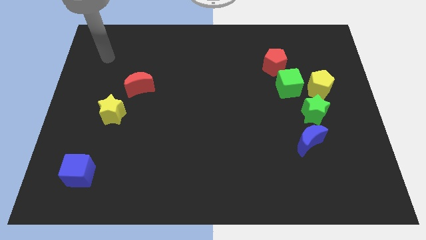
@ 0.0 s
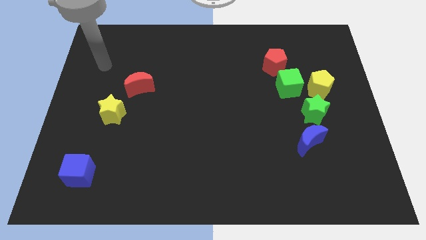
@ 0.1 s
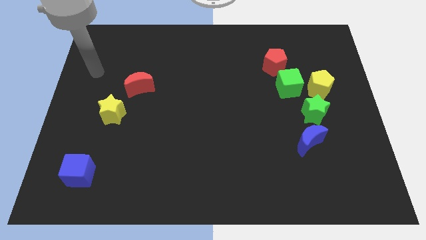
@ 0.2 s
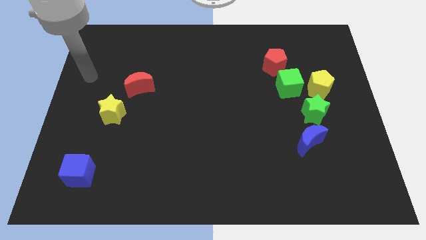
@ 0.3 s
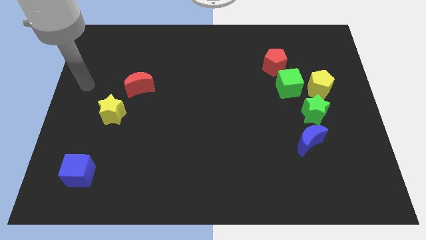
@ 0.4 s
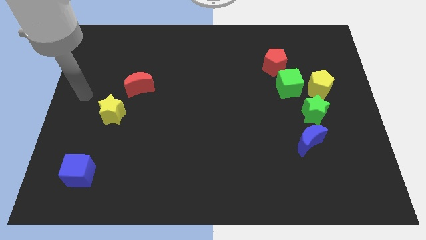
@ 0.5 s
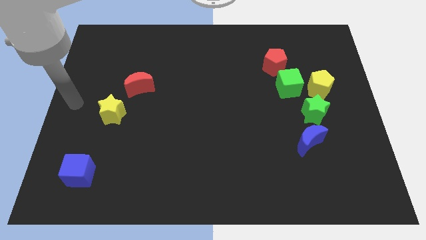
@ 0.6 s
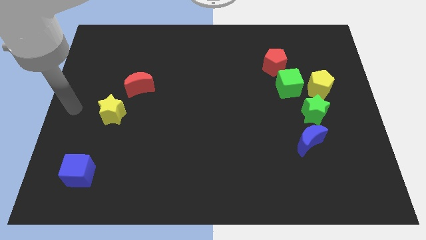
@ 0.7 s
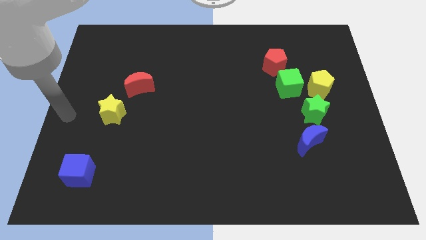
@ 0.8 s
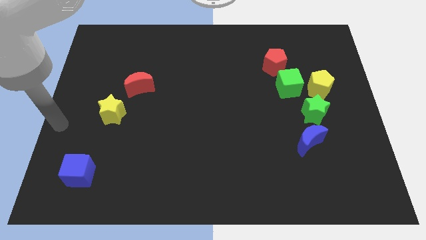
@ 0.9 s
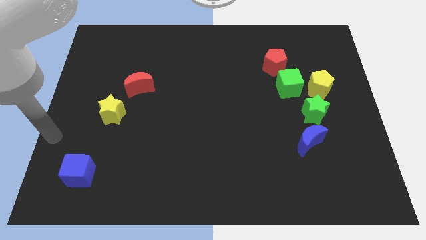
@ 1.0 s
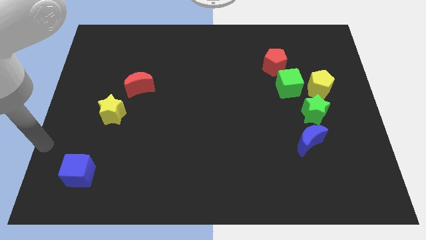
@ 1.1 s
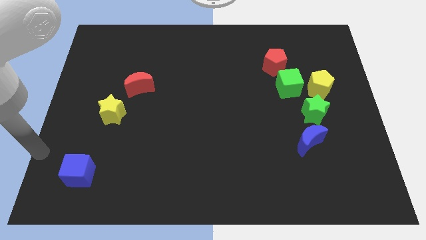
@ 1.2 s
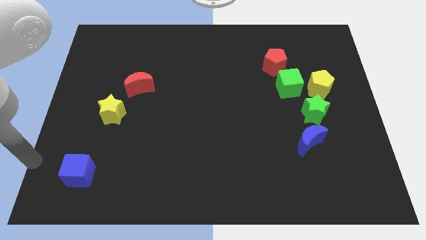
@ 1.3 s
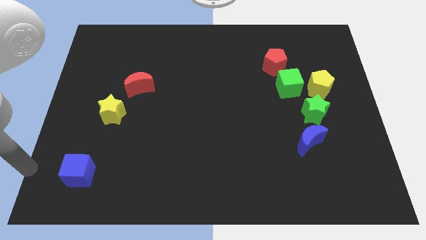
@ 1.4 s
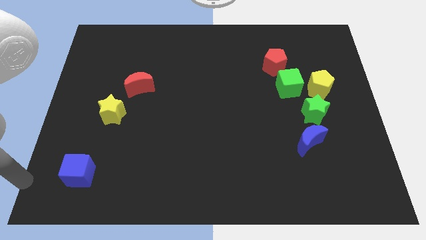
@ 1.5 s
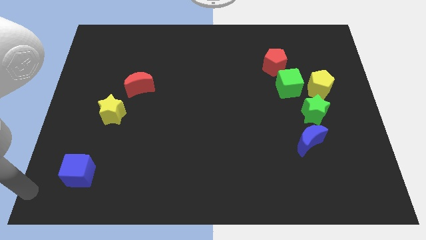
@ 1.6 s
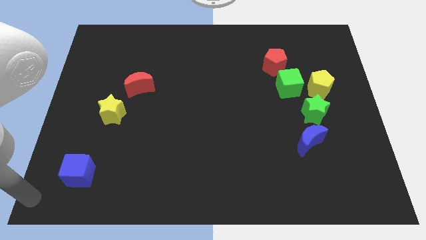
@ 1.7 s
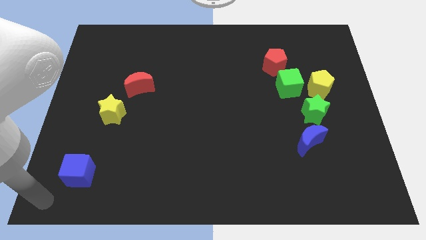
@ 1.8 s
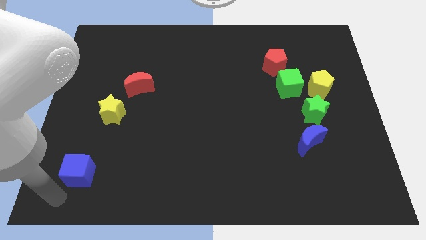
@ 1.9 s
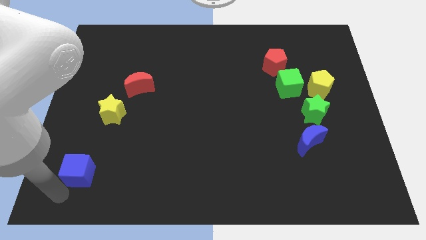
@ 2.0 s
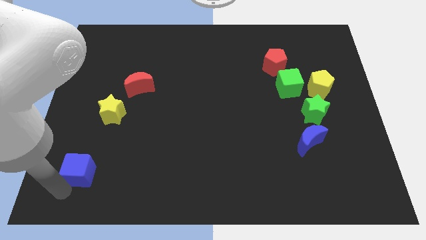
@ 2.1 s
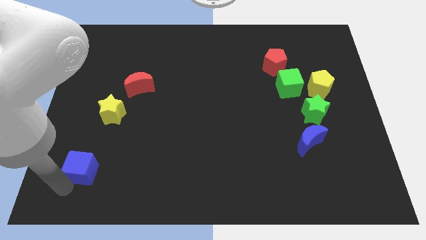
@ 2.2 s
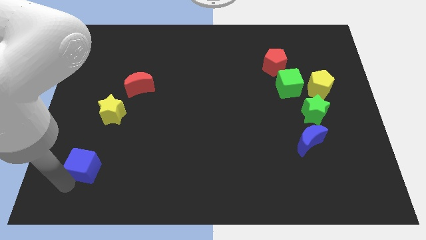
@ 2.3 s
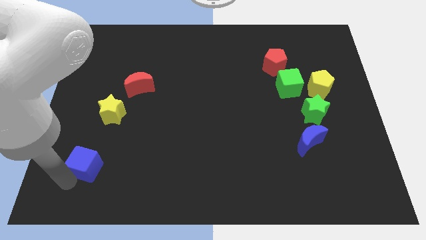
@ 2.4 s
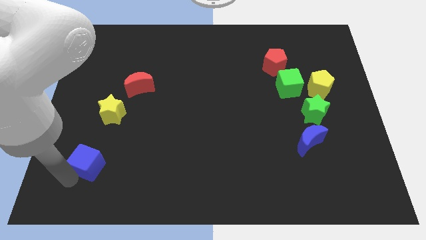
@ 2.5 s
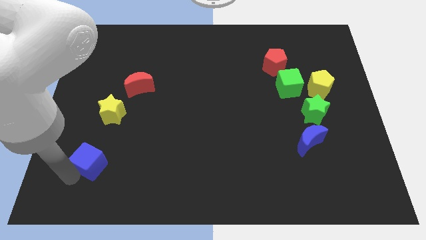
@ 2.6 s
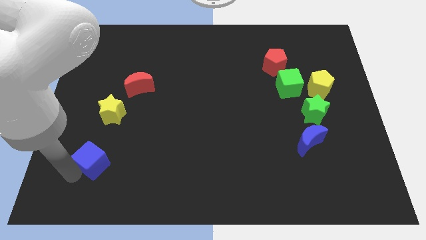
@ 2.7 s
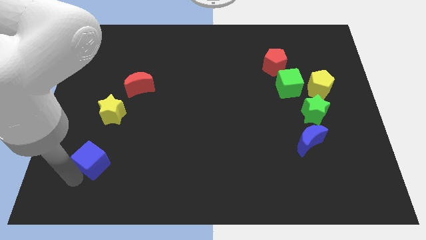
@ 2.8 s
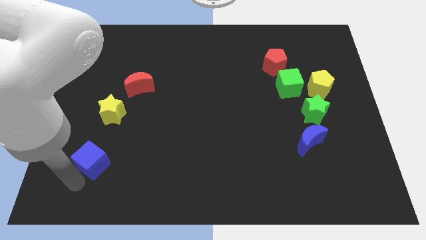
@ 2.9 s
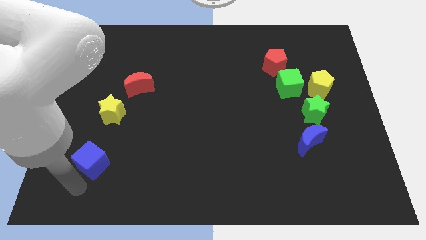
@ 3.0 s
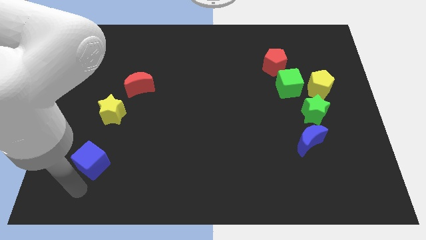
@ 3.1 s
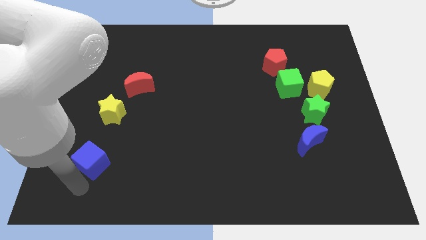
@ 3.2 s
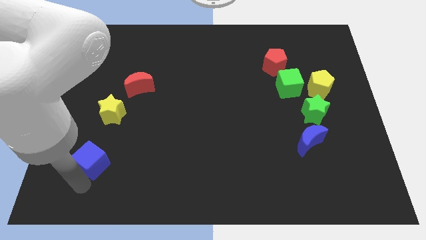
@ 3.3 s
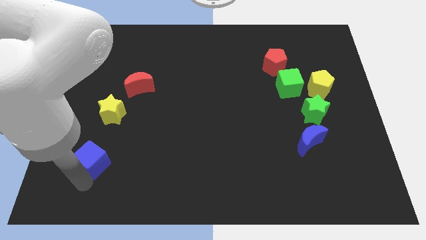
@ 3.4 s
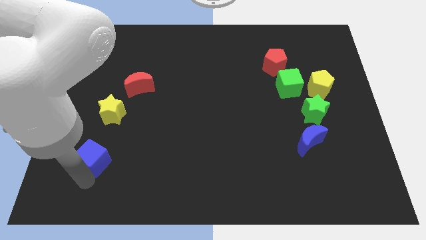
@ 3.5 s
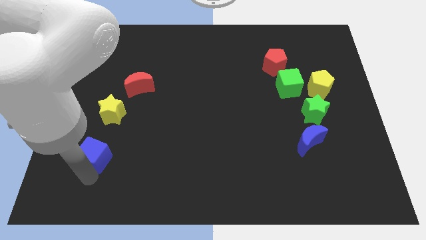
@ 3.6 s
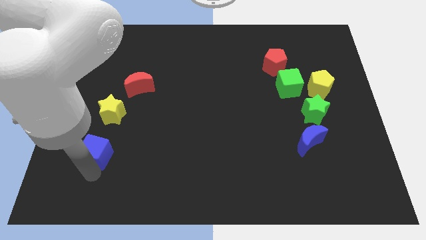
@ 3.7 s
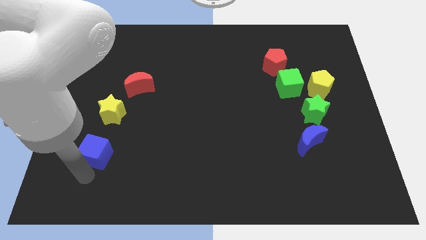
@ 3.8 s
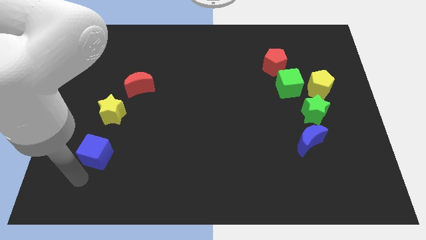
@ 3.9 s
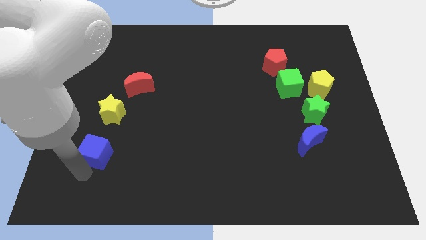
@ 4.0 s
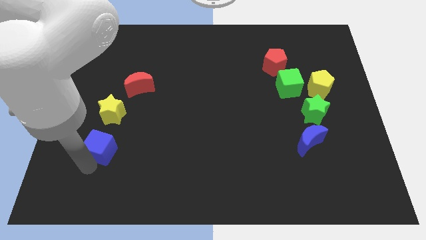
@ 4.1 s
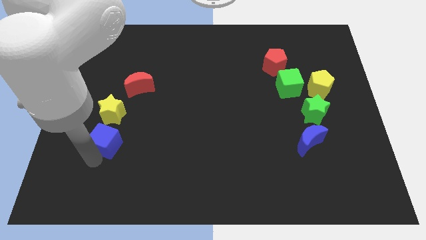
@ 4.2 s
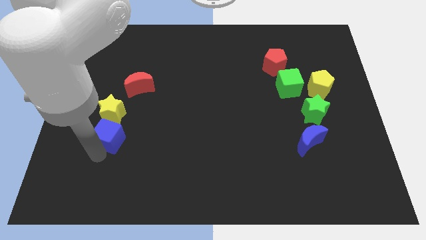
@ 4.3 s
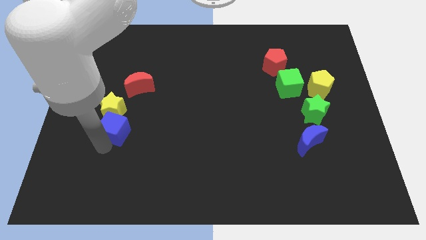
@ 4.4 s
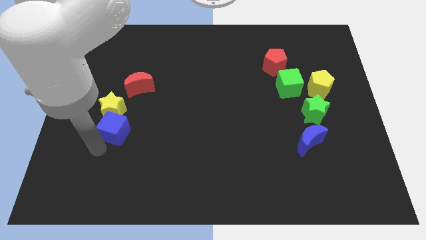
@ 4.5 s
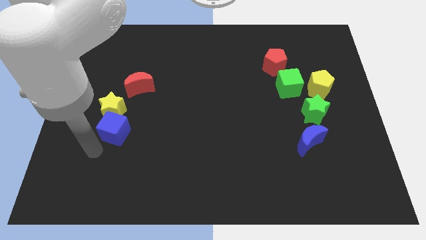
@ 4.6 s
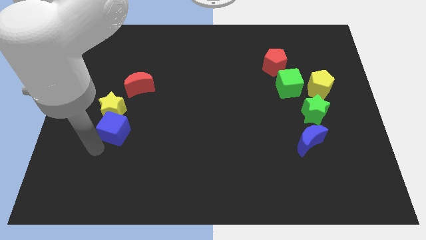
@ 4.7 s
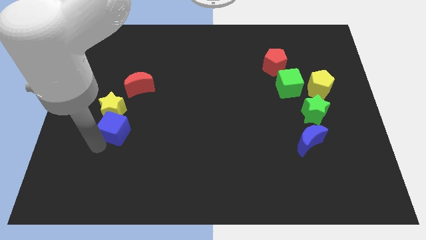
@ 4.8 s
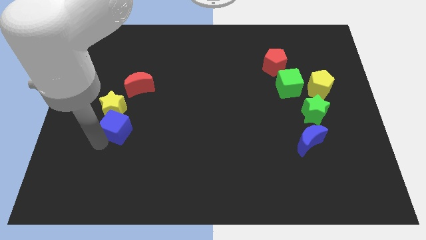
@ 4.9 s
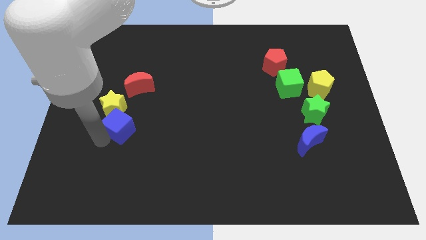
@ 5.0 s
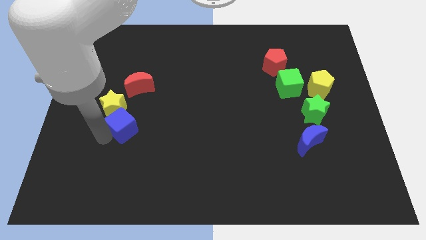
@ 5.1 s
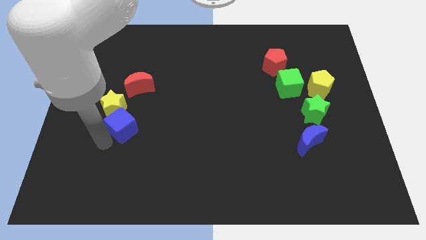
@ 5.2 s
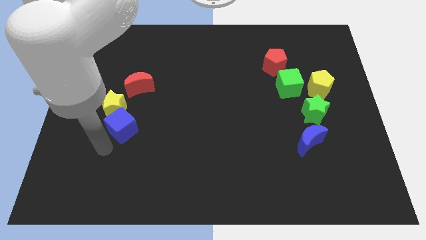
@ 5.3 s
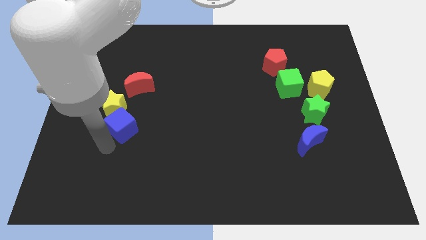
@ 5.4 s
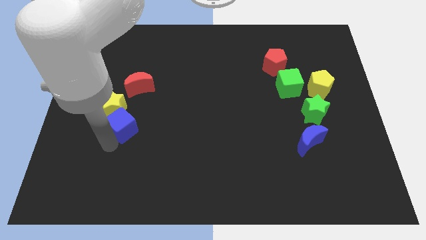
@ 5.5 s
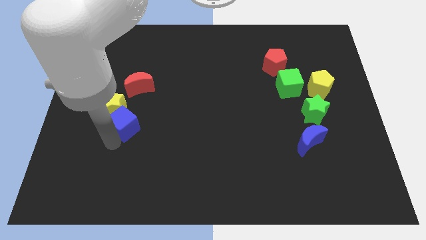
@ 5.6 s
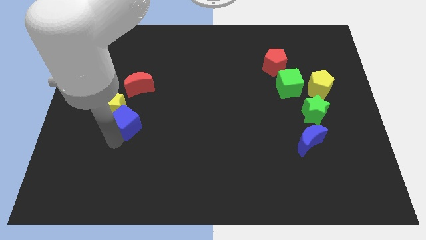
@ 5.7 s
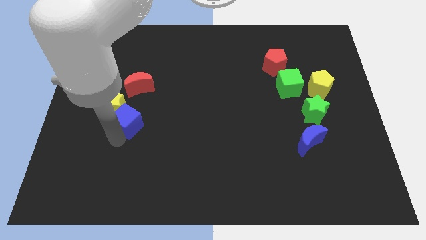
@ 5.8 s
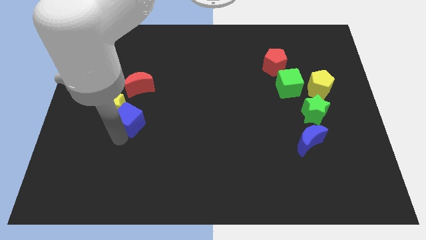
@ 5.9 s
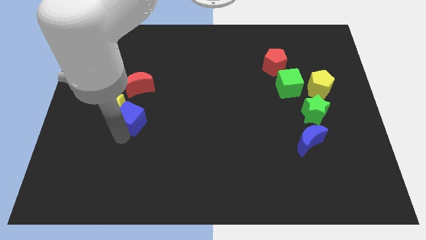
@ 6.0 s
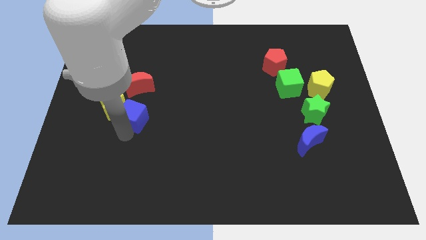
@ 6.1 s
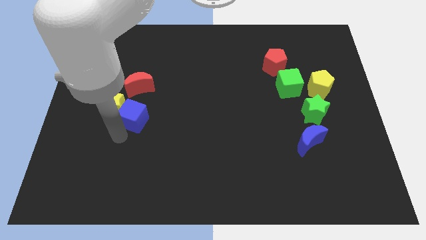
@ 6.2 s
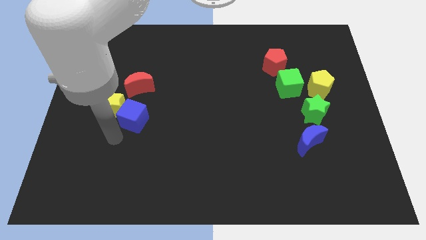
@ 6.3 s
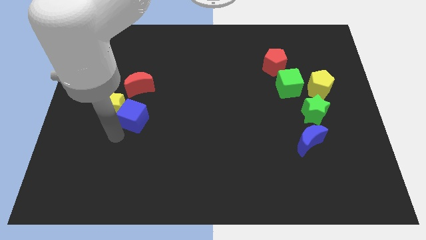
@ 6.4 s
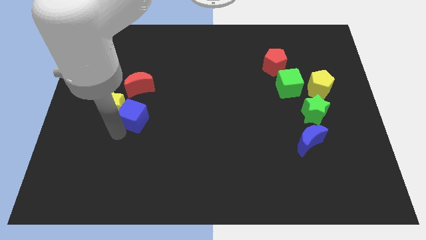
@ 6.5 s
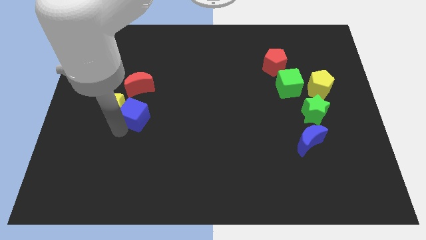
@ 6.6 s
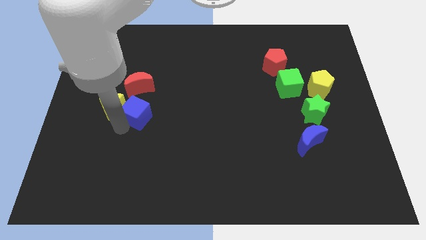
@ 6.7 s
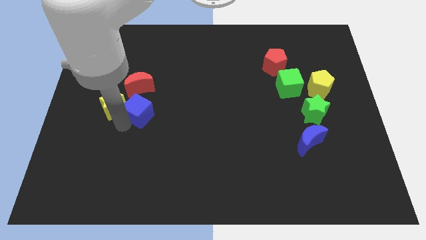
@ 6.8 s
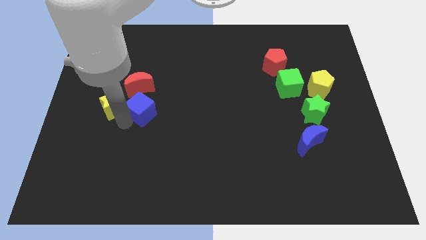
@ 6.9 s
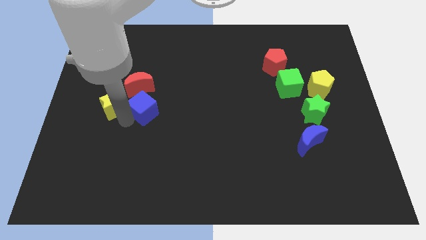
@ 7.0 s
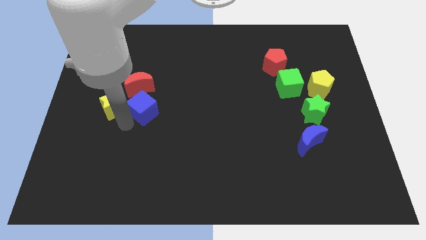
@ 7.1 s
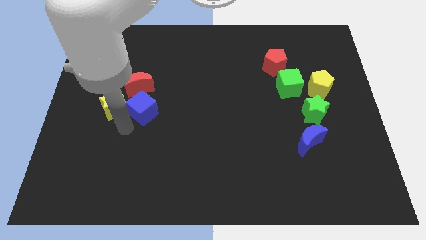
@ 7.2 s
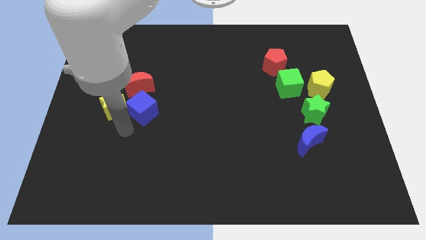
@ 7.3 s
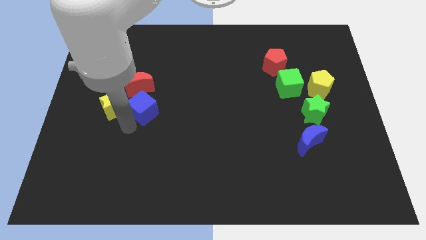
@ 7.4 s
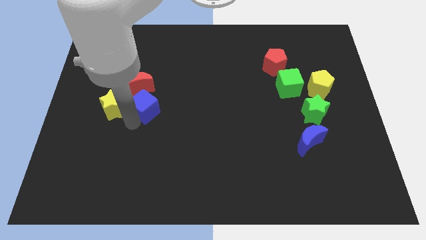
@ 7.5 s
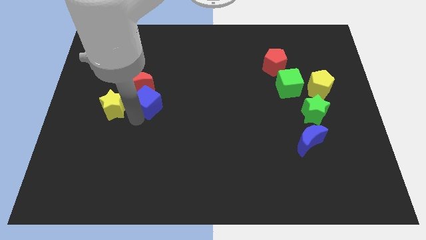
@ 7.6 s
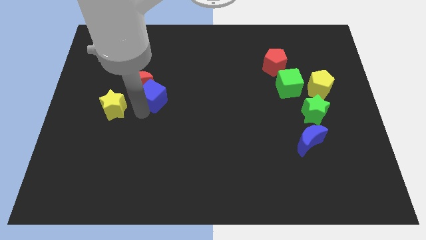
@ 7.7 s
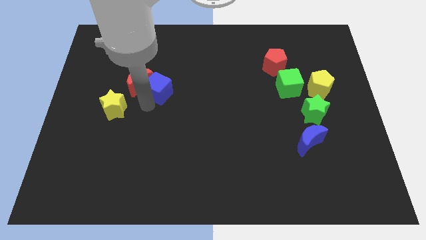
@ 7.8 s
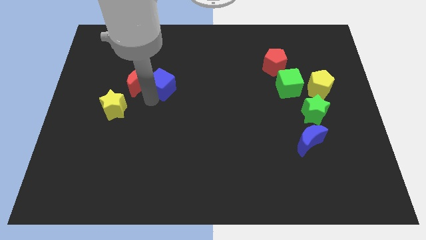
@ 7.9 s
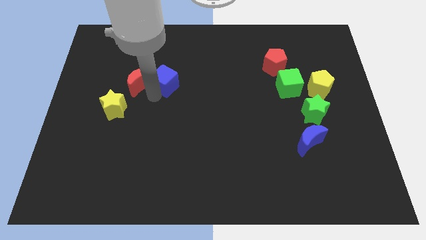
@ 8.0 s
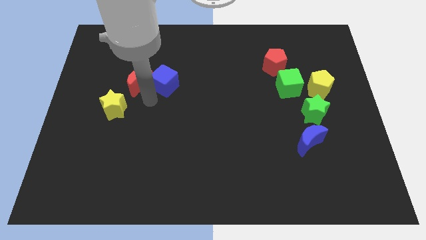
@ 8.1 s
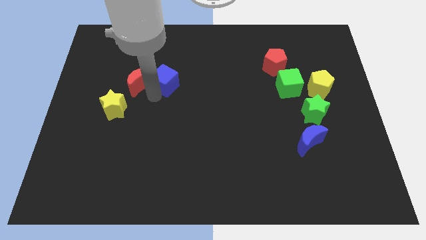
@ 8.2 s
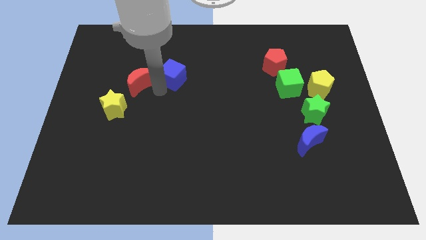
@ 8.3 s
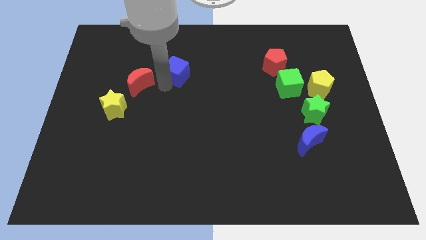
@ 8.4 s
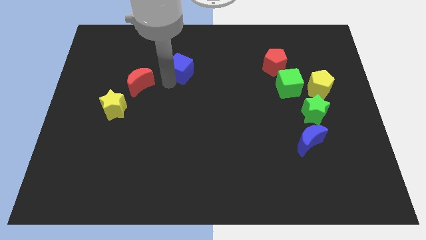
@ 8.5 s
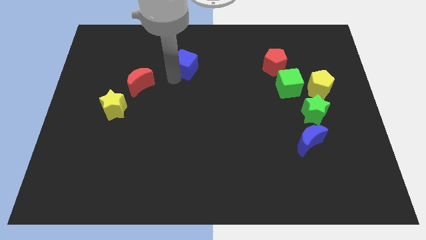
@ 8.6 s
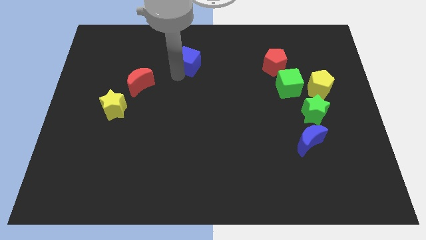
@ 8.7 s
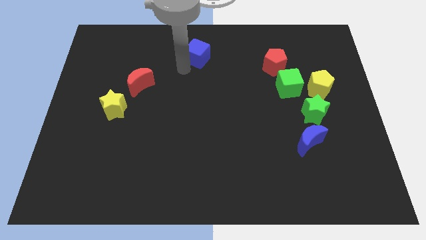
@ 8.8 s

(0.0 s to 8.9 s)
put the blue cube to the top side
